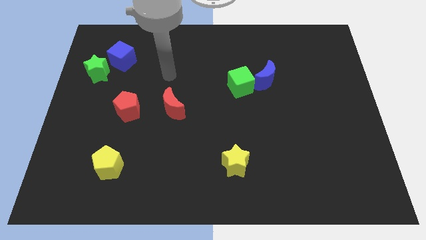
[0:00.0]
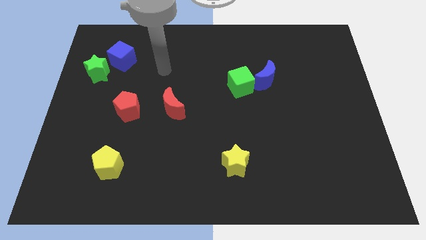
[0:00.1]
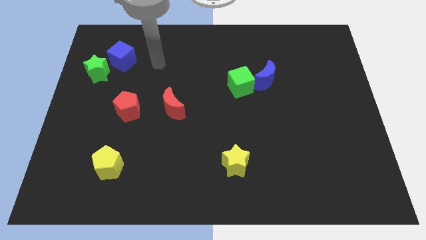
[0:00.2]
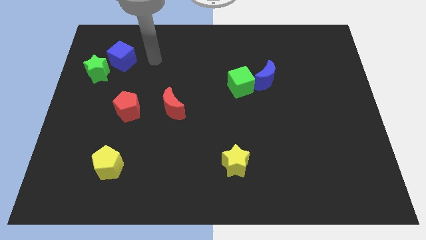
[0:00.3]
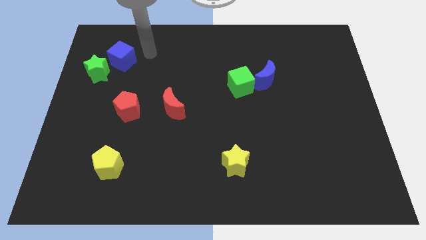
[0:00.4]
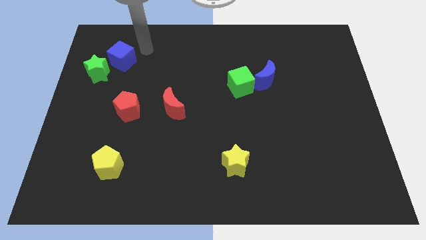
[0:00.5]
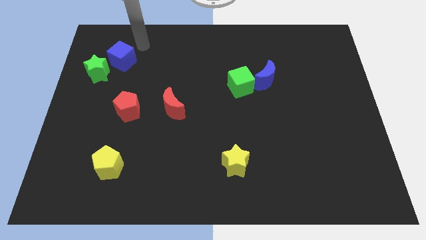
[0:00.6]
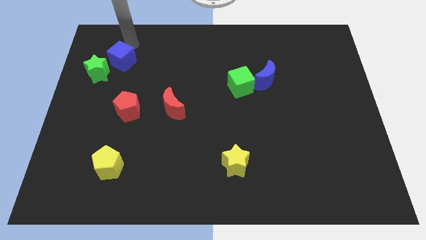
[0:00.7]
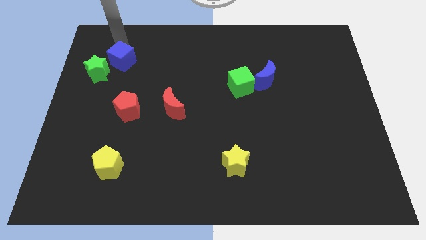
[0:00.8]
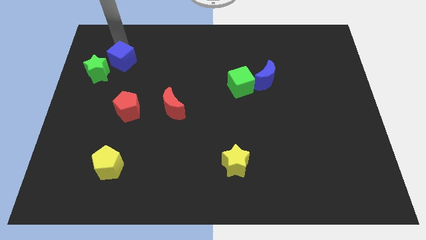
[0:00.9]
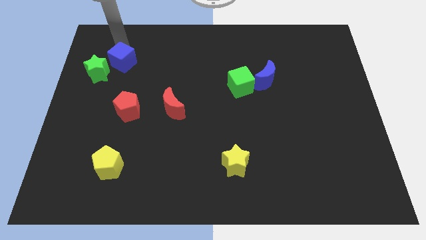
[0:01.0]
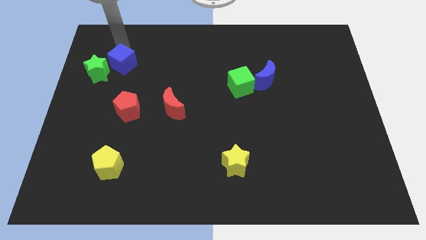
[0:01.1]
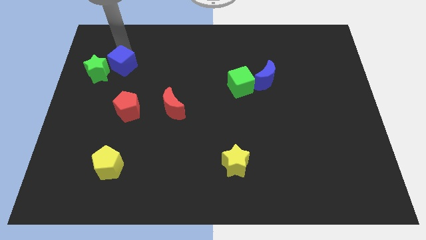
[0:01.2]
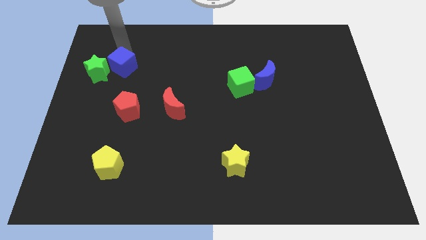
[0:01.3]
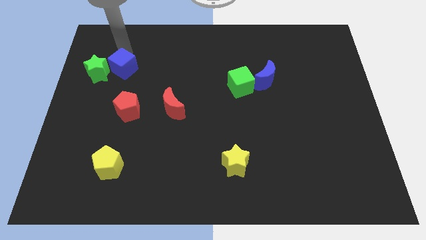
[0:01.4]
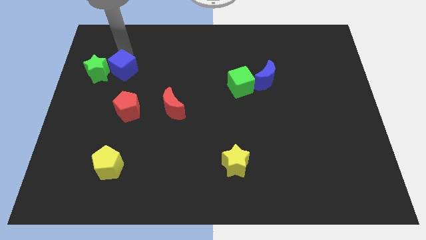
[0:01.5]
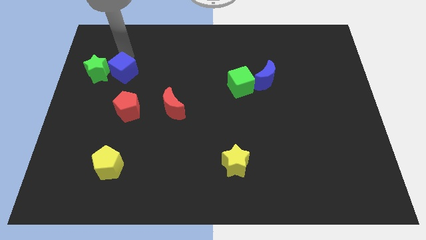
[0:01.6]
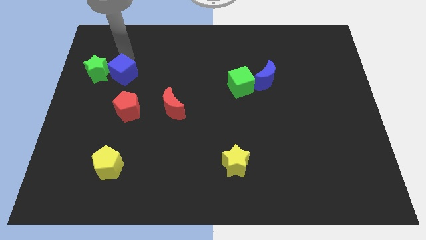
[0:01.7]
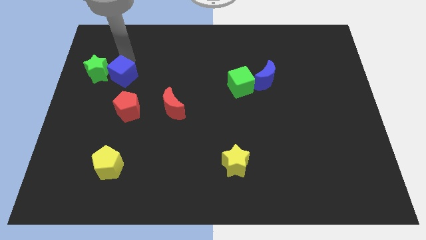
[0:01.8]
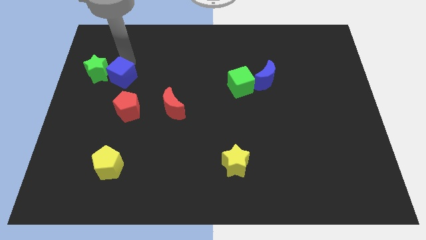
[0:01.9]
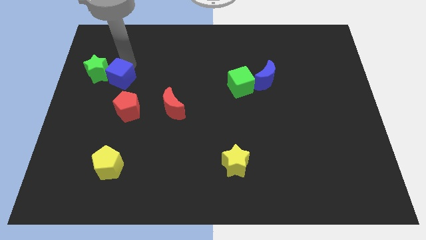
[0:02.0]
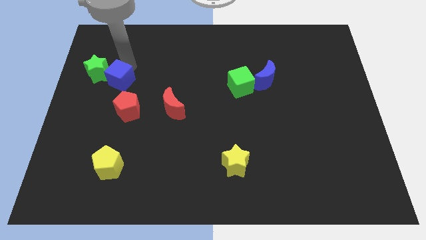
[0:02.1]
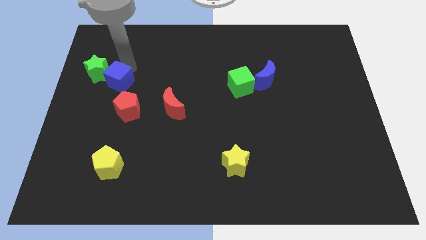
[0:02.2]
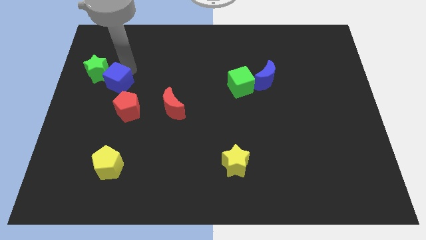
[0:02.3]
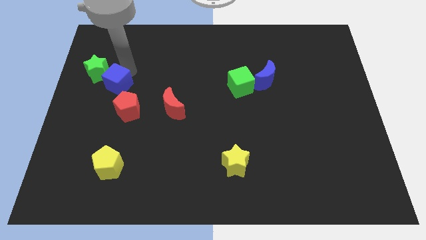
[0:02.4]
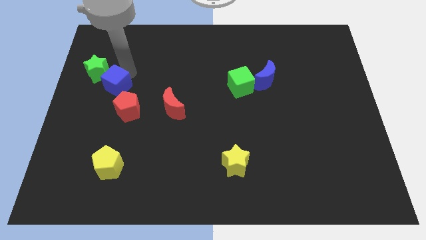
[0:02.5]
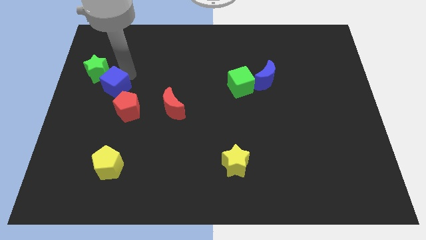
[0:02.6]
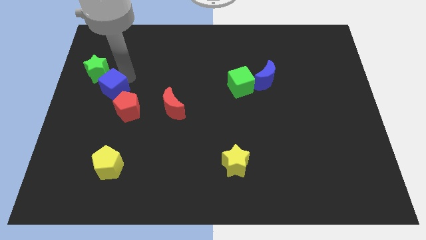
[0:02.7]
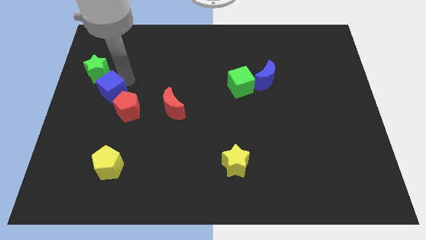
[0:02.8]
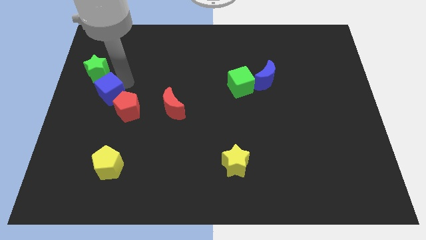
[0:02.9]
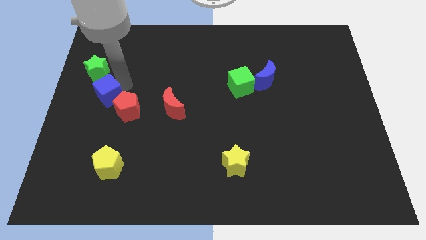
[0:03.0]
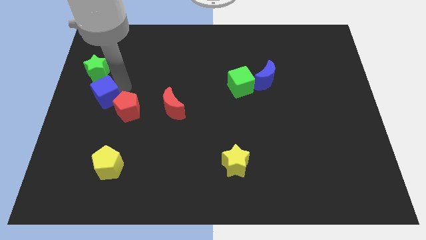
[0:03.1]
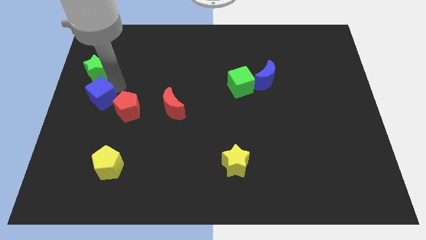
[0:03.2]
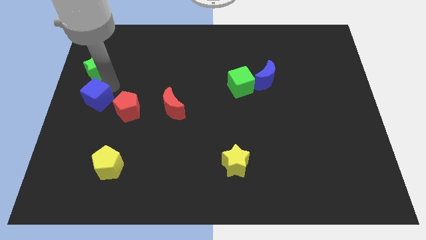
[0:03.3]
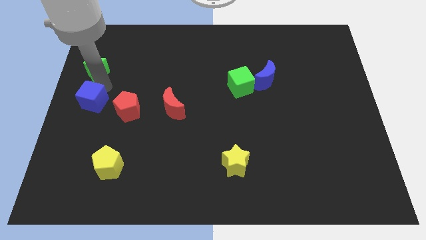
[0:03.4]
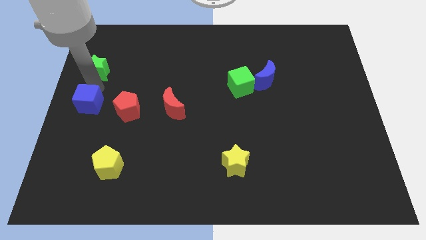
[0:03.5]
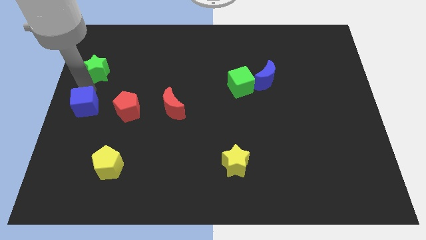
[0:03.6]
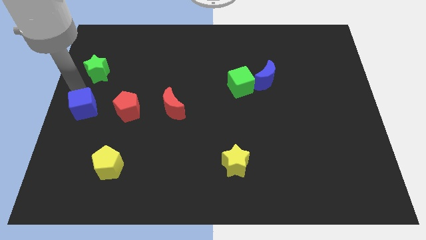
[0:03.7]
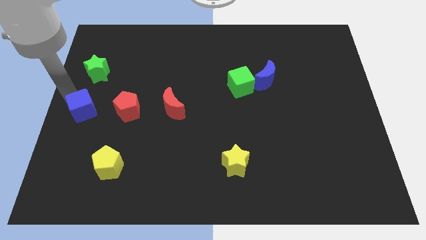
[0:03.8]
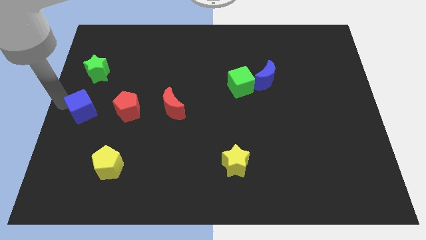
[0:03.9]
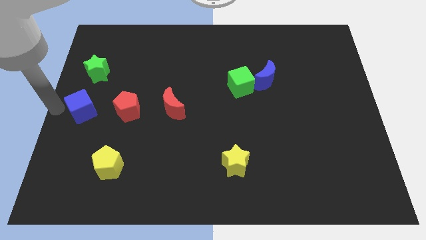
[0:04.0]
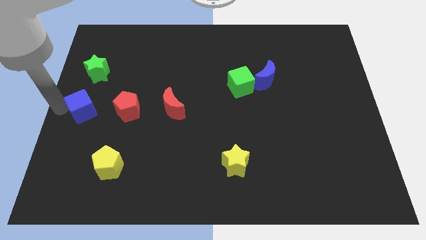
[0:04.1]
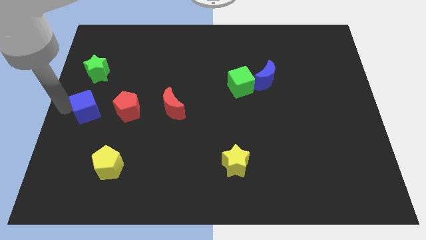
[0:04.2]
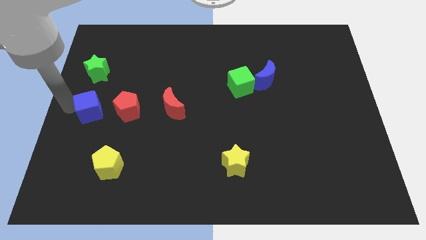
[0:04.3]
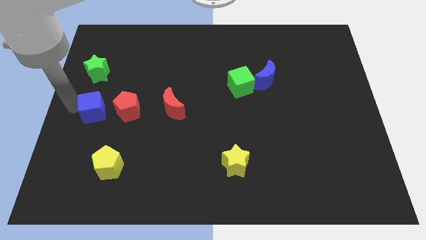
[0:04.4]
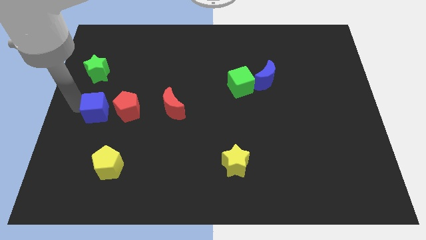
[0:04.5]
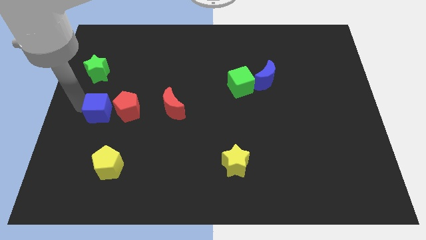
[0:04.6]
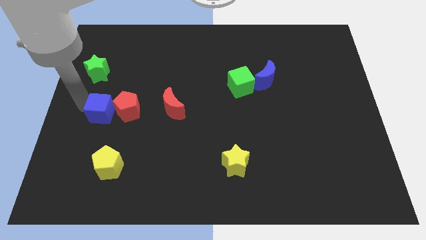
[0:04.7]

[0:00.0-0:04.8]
put the blue cube to the red pentagon

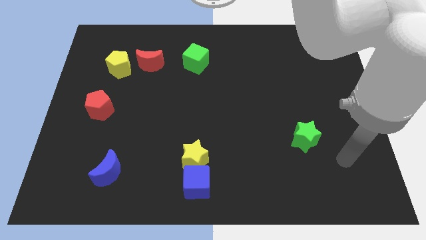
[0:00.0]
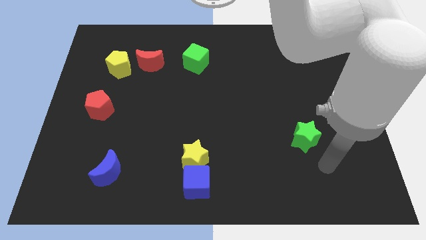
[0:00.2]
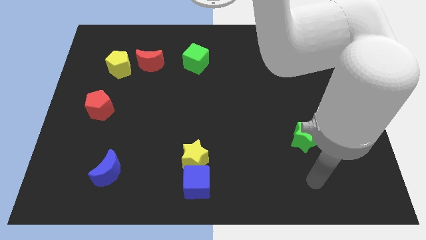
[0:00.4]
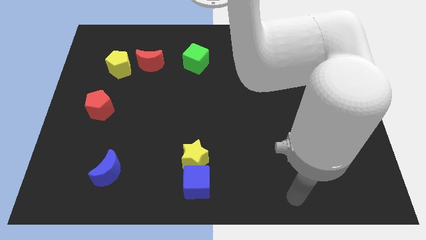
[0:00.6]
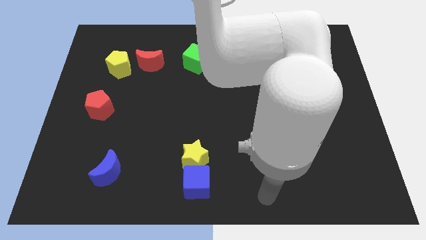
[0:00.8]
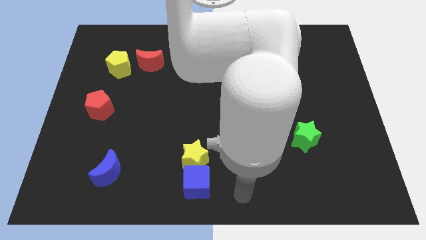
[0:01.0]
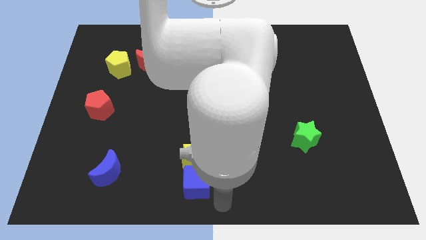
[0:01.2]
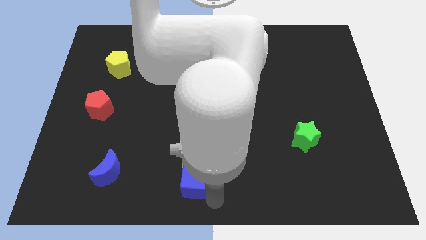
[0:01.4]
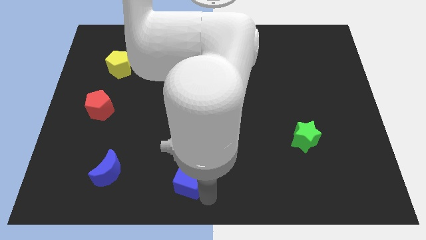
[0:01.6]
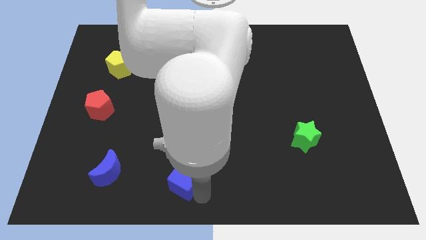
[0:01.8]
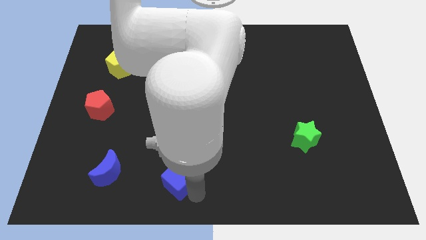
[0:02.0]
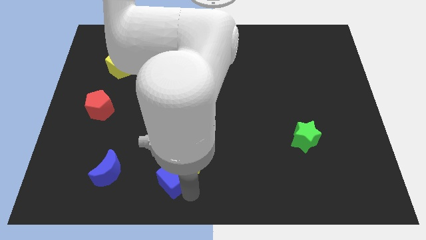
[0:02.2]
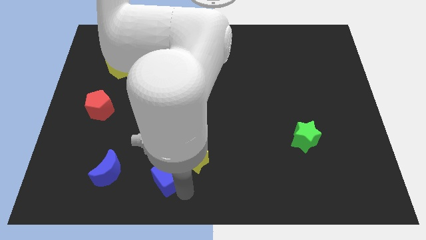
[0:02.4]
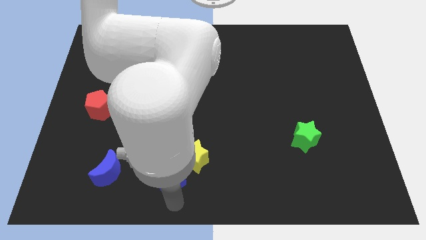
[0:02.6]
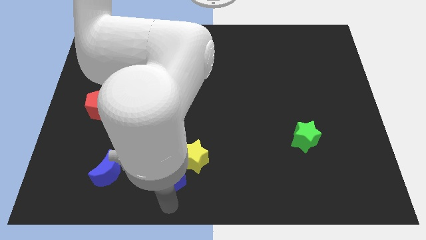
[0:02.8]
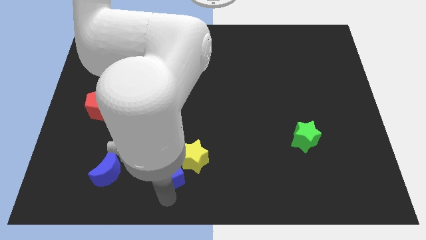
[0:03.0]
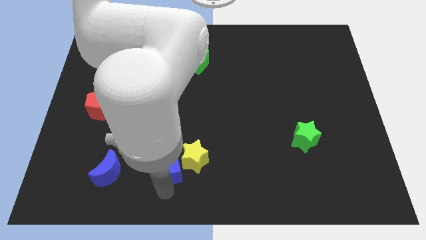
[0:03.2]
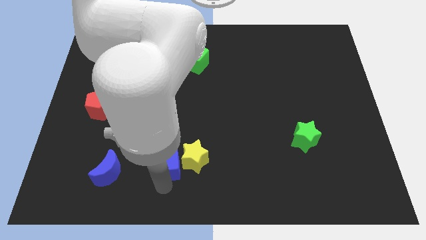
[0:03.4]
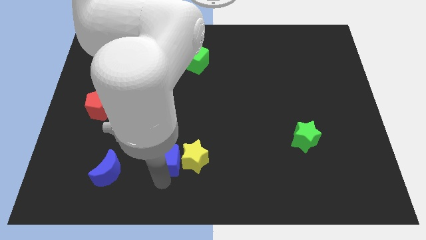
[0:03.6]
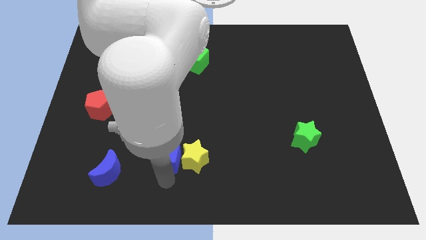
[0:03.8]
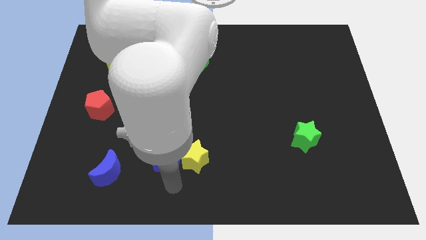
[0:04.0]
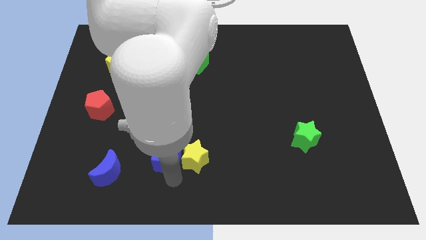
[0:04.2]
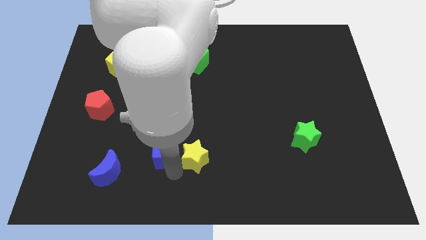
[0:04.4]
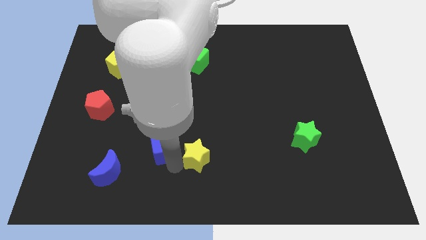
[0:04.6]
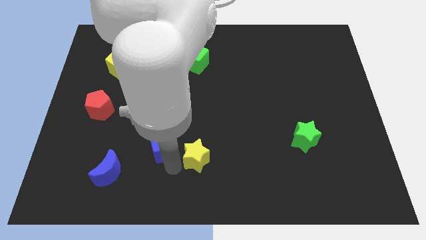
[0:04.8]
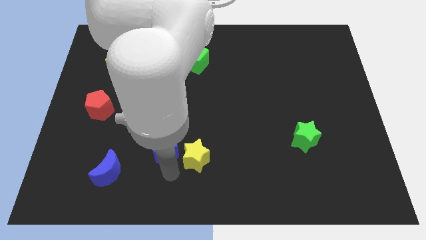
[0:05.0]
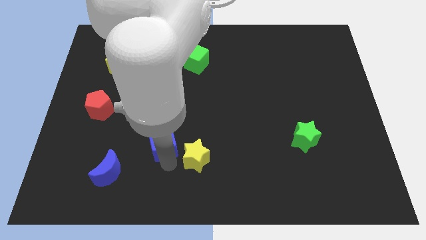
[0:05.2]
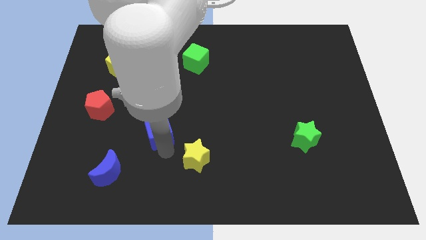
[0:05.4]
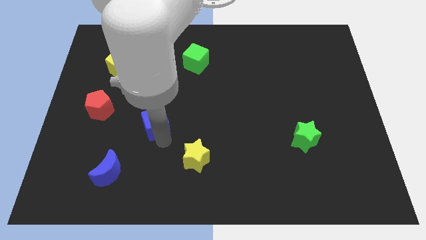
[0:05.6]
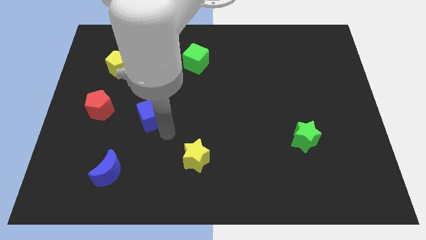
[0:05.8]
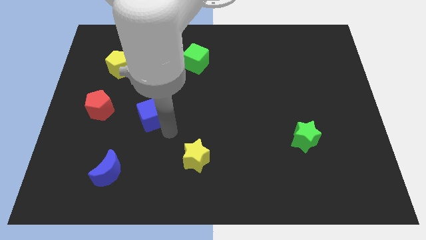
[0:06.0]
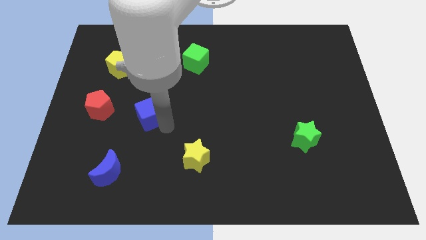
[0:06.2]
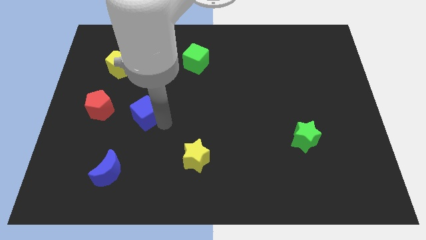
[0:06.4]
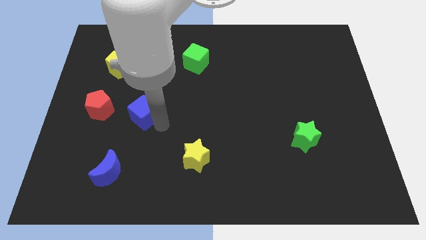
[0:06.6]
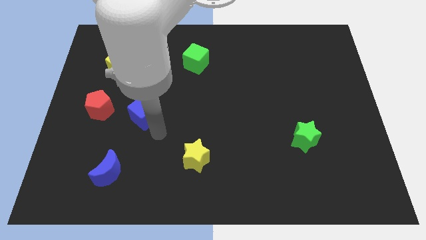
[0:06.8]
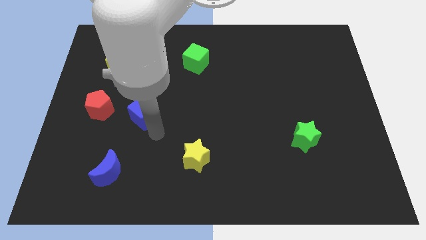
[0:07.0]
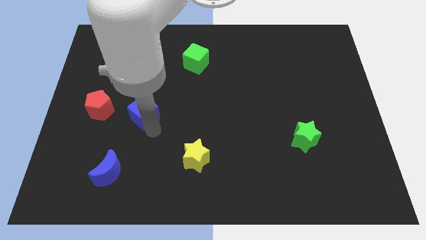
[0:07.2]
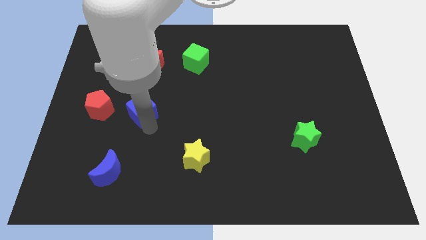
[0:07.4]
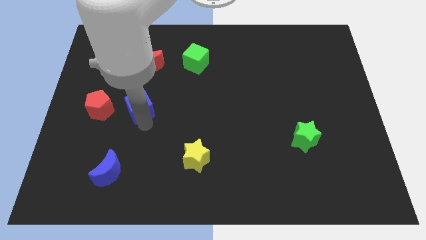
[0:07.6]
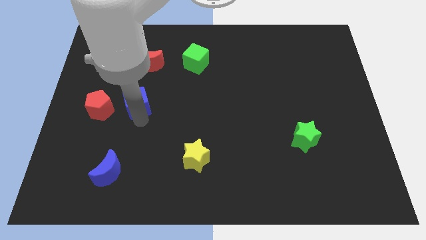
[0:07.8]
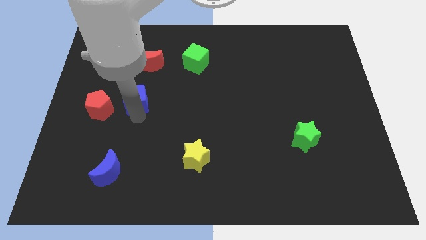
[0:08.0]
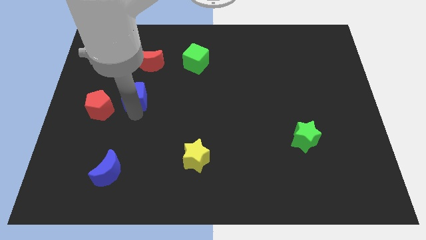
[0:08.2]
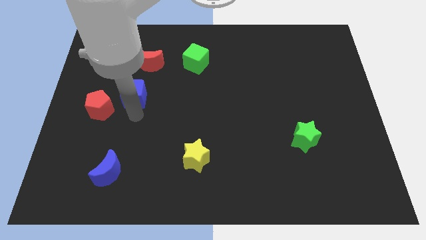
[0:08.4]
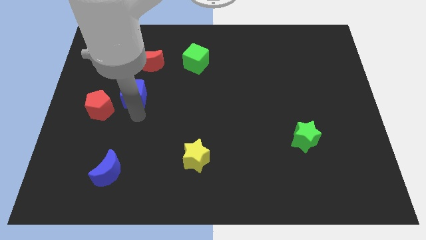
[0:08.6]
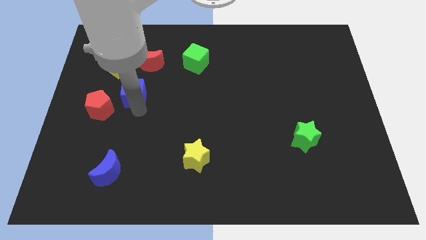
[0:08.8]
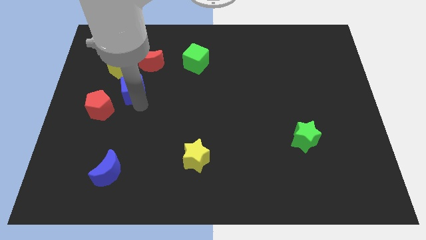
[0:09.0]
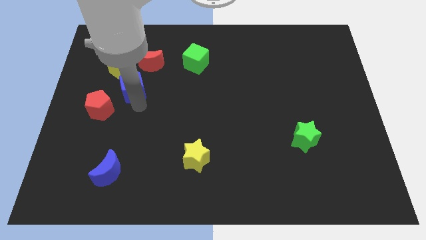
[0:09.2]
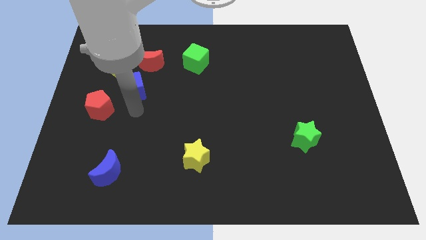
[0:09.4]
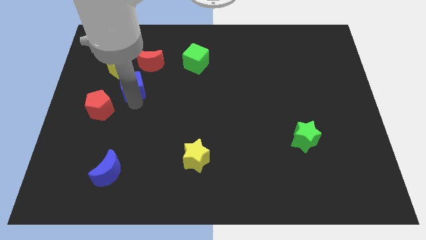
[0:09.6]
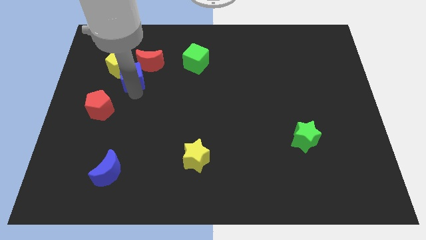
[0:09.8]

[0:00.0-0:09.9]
move the blue cube to the yellow pentagon
